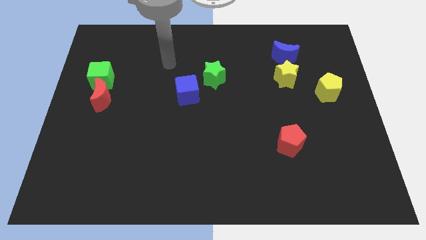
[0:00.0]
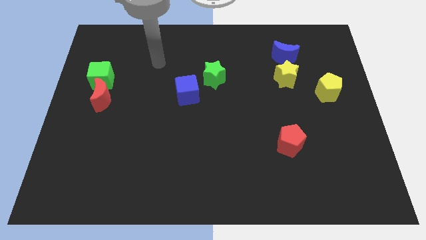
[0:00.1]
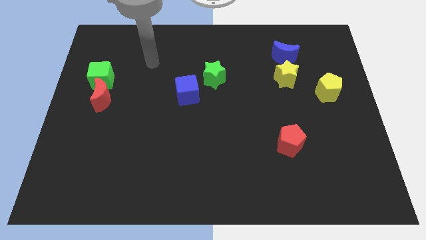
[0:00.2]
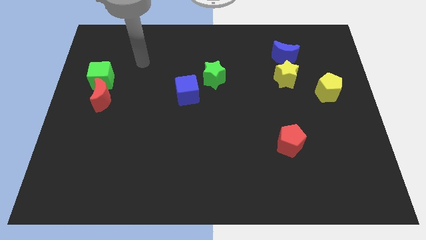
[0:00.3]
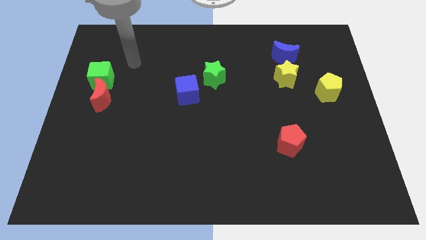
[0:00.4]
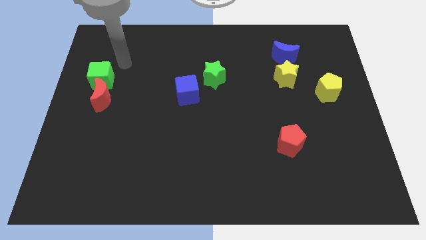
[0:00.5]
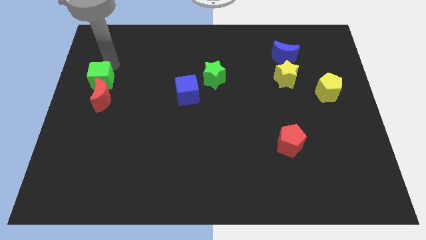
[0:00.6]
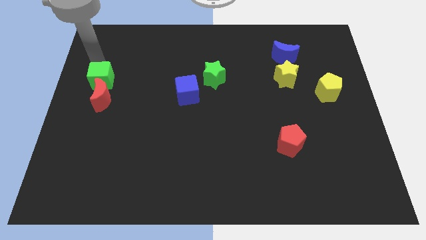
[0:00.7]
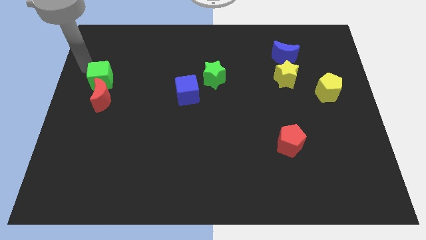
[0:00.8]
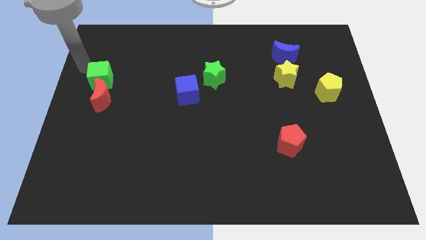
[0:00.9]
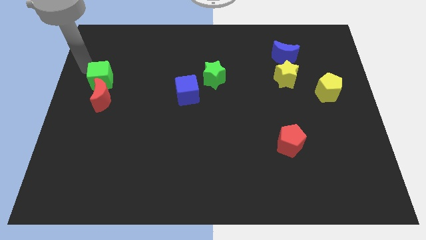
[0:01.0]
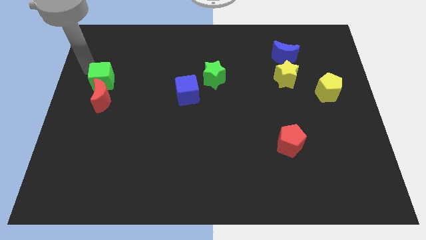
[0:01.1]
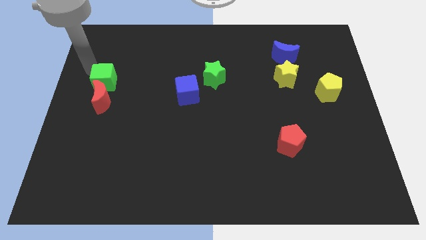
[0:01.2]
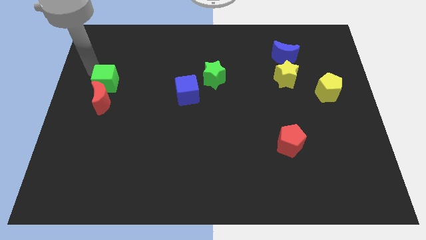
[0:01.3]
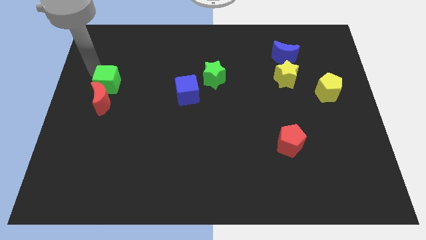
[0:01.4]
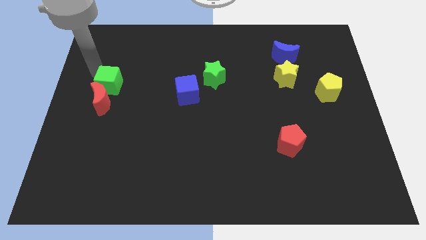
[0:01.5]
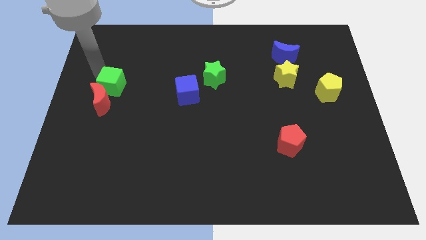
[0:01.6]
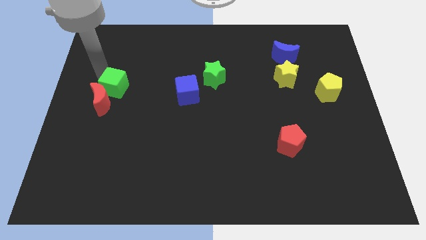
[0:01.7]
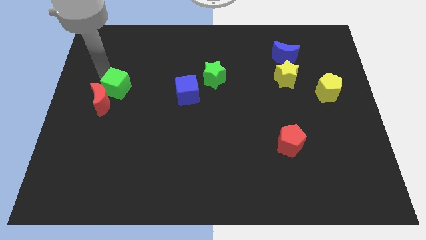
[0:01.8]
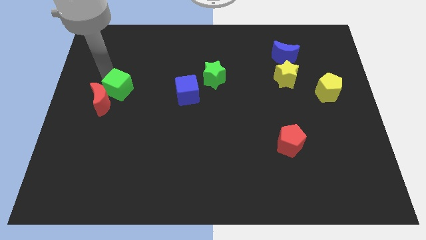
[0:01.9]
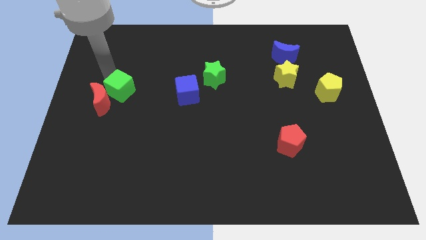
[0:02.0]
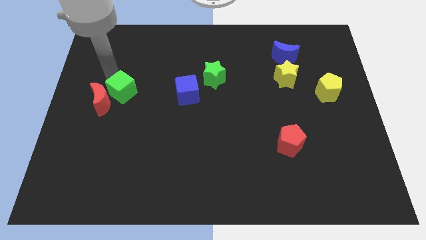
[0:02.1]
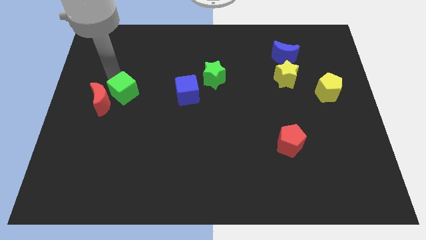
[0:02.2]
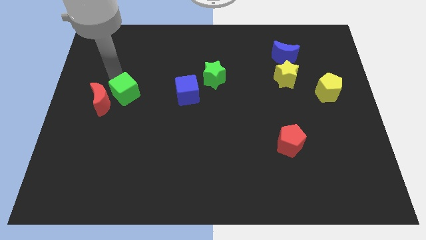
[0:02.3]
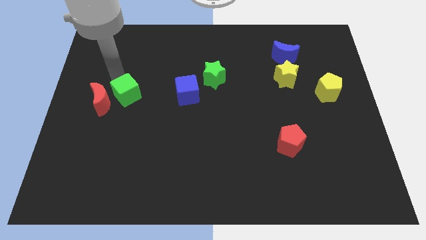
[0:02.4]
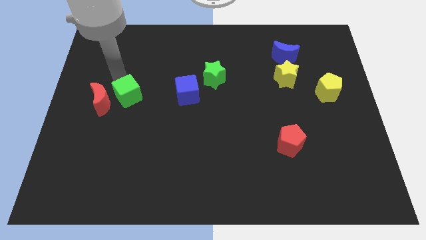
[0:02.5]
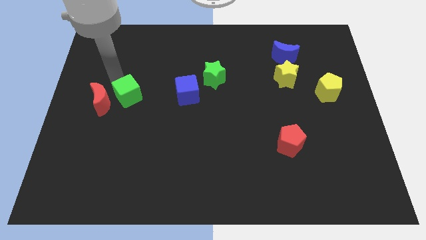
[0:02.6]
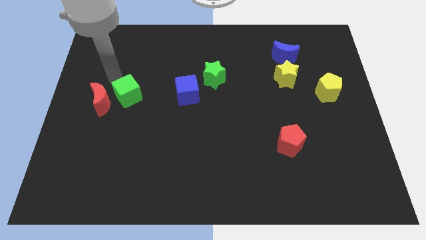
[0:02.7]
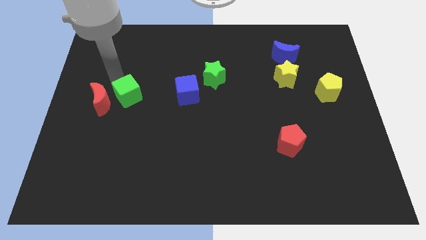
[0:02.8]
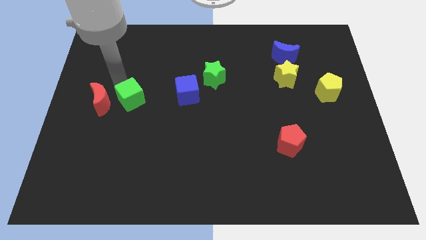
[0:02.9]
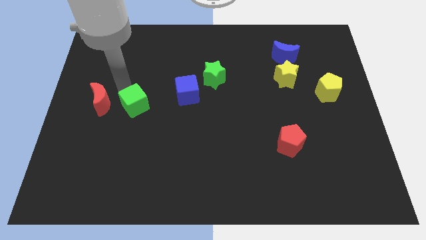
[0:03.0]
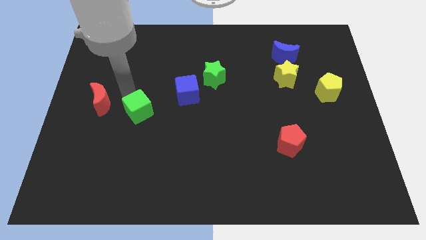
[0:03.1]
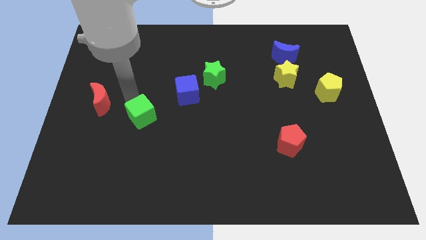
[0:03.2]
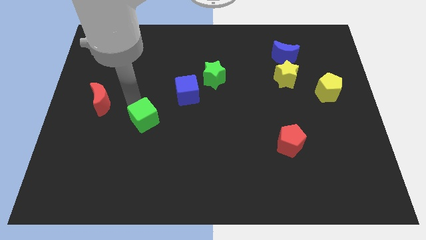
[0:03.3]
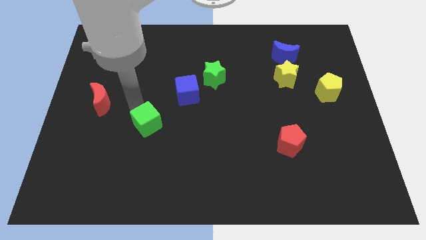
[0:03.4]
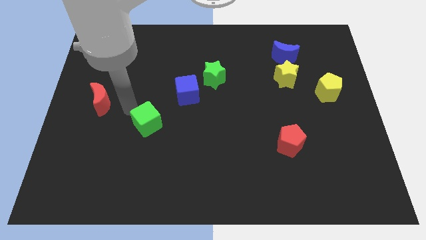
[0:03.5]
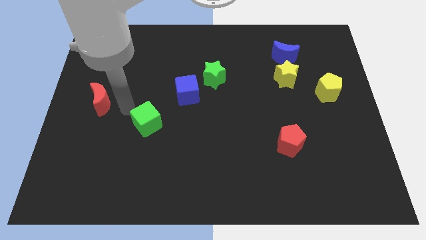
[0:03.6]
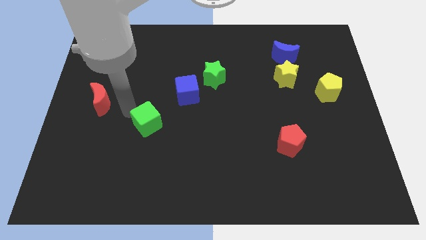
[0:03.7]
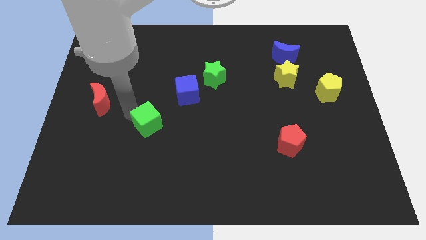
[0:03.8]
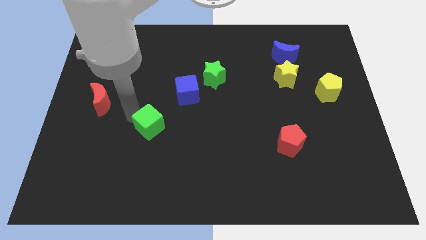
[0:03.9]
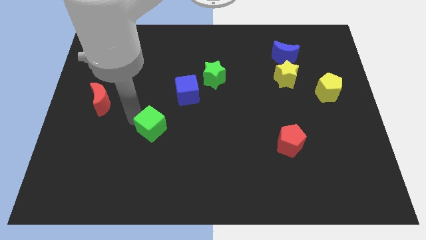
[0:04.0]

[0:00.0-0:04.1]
slide the green cube down and right

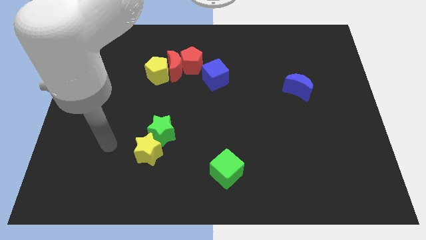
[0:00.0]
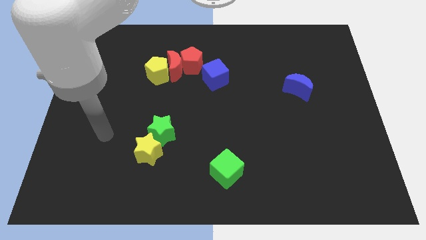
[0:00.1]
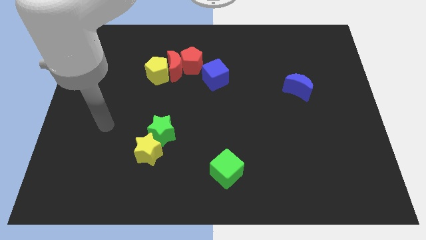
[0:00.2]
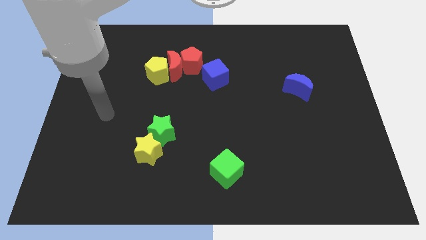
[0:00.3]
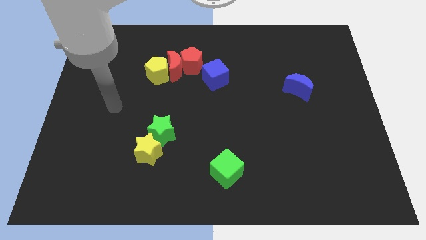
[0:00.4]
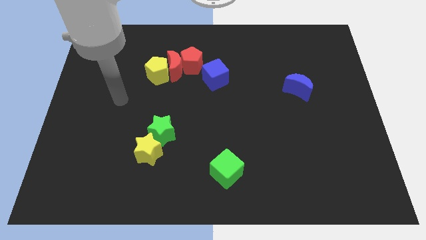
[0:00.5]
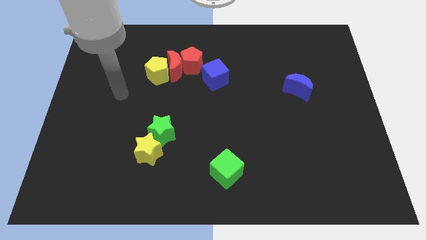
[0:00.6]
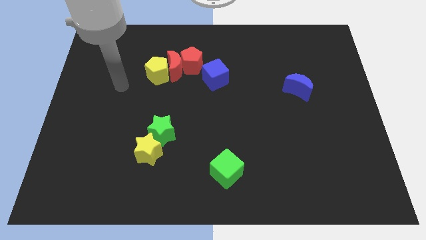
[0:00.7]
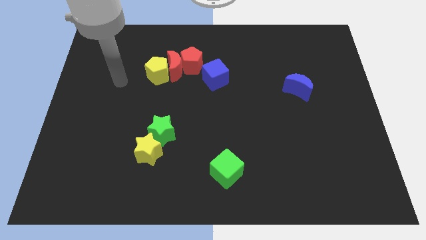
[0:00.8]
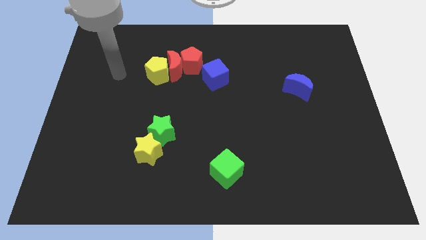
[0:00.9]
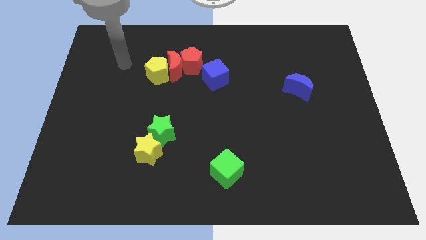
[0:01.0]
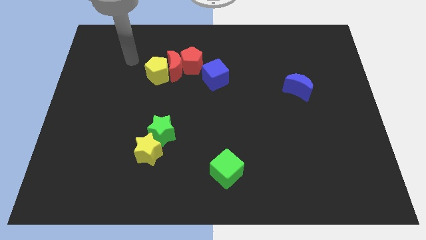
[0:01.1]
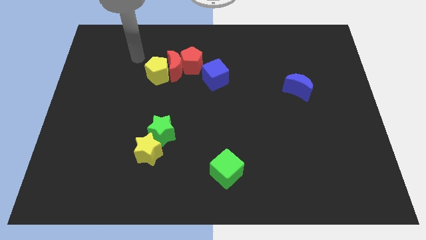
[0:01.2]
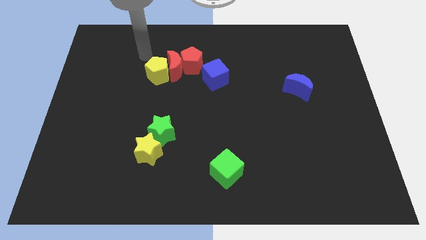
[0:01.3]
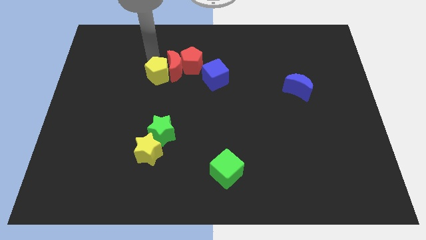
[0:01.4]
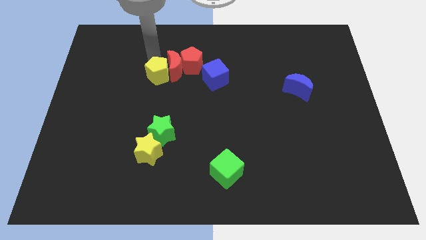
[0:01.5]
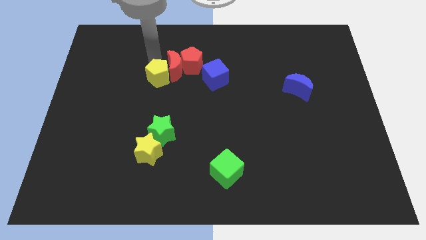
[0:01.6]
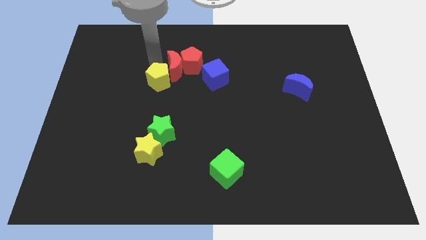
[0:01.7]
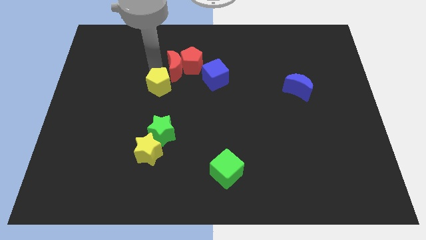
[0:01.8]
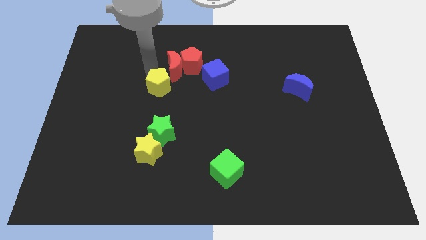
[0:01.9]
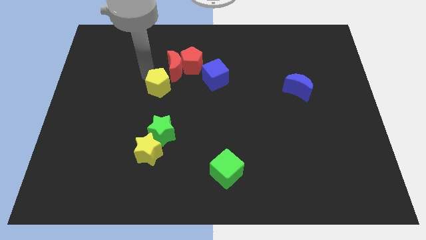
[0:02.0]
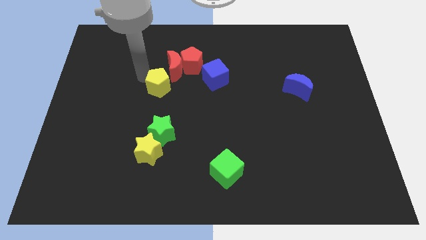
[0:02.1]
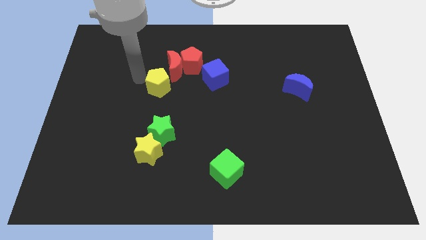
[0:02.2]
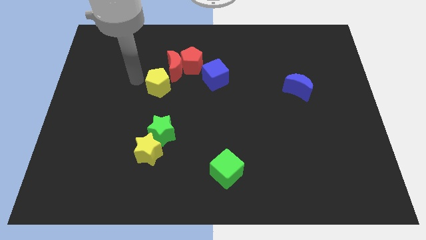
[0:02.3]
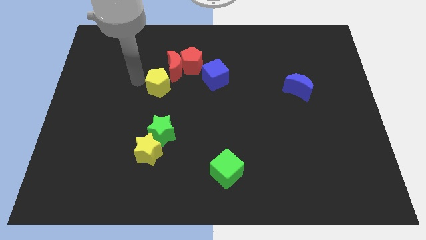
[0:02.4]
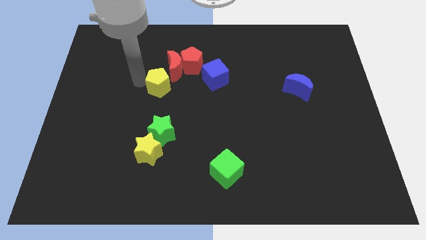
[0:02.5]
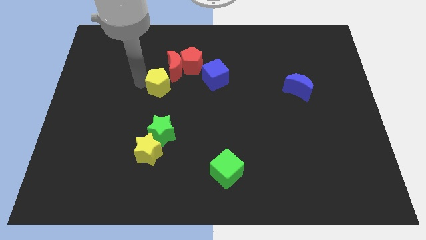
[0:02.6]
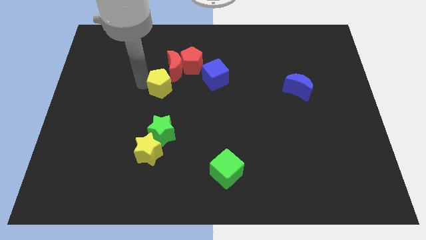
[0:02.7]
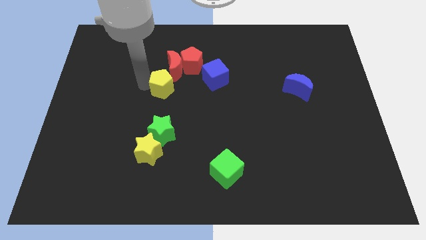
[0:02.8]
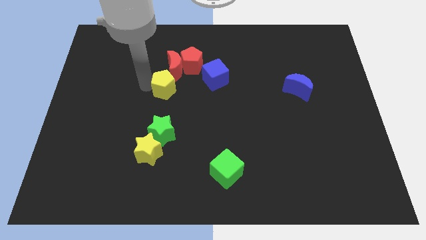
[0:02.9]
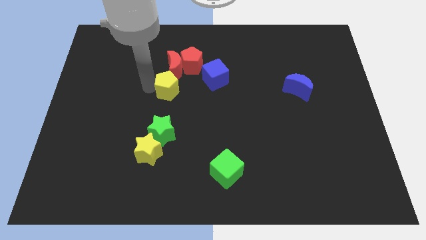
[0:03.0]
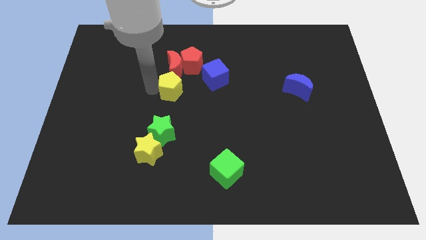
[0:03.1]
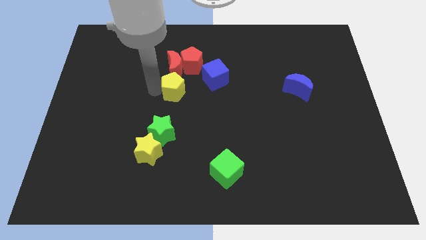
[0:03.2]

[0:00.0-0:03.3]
move the yellow pentagon diagonally down and to the right slightly

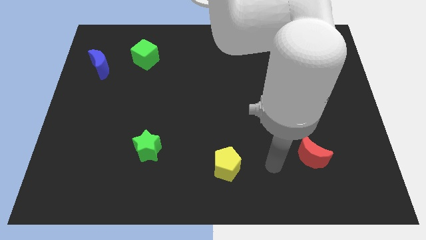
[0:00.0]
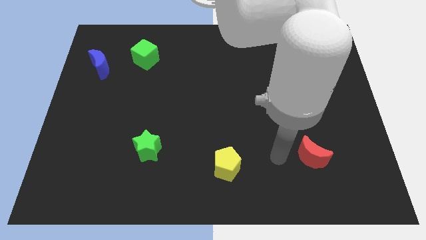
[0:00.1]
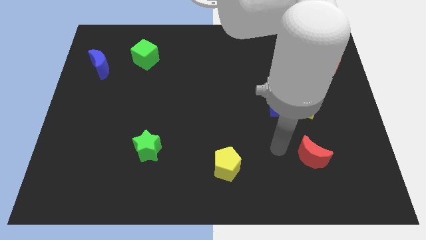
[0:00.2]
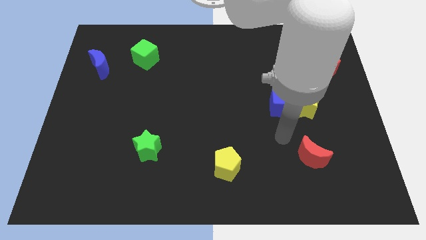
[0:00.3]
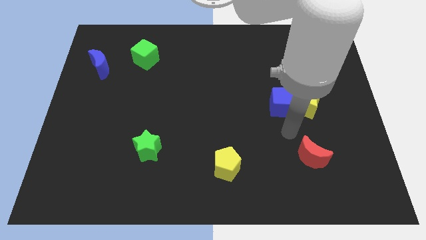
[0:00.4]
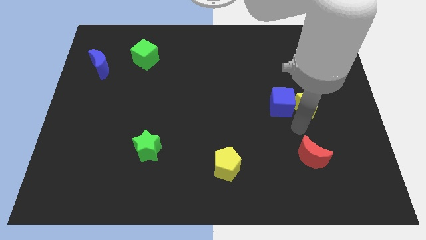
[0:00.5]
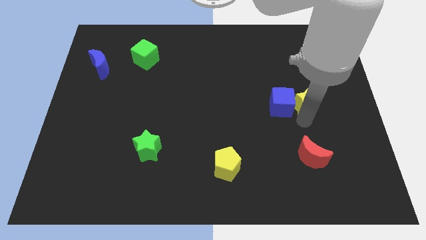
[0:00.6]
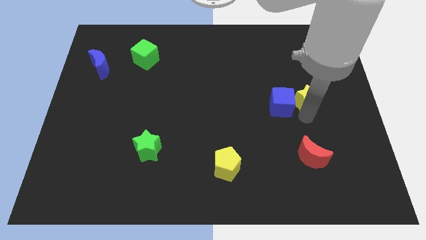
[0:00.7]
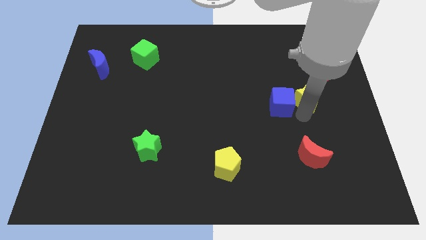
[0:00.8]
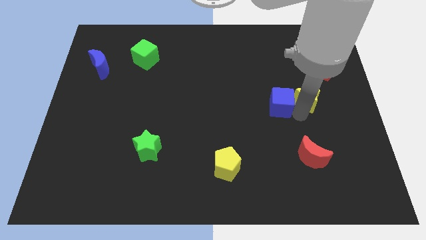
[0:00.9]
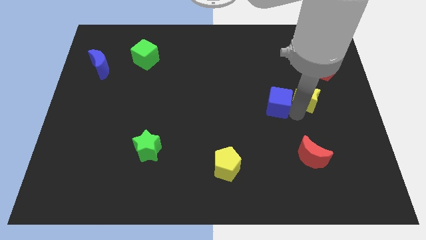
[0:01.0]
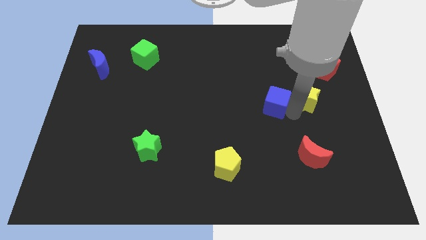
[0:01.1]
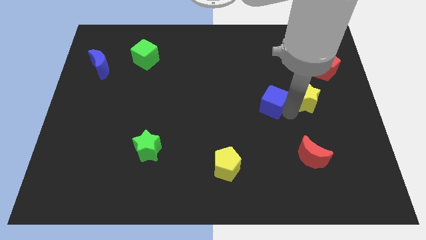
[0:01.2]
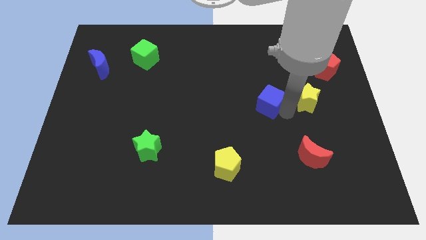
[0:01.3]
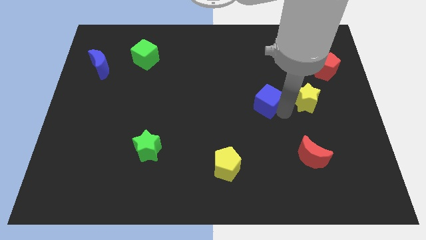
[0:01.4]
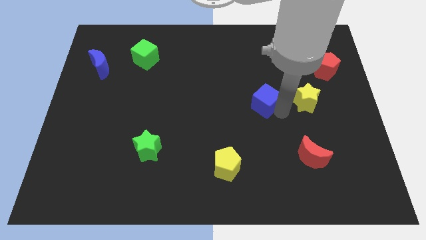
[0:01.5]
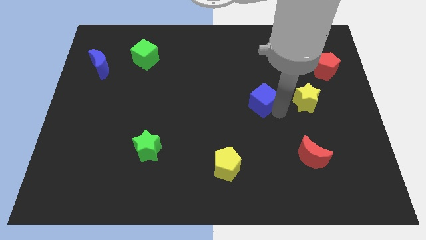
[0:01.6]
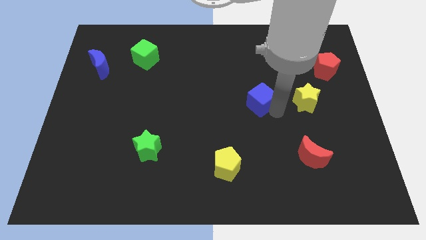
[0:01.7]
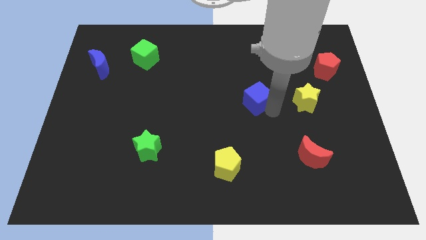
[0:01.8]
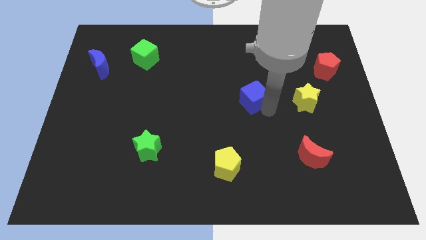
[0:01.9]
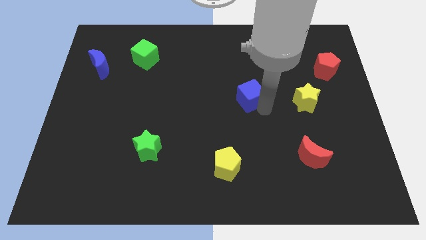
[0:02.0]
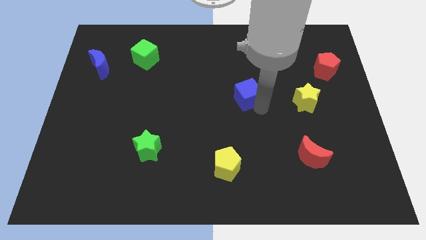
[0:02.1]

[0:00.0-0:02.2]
push the blue cube slightly up and to the left diagonally
